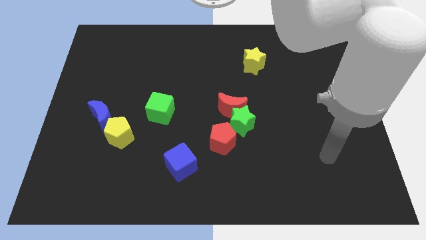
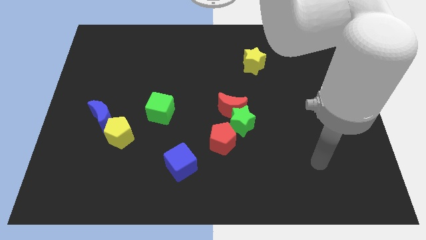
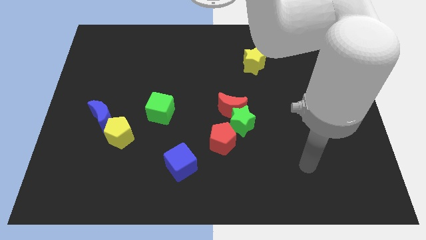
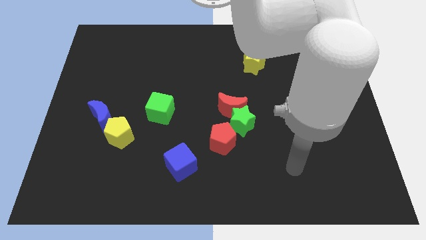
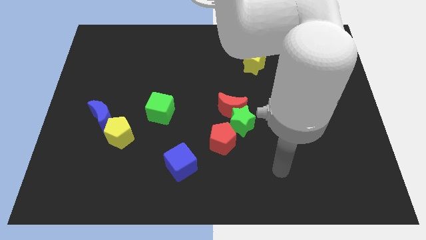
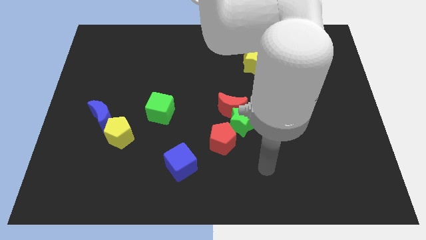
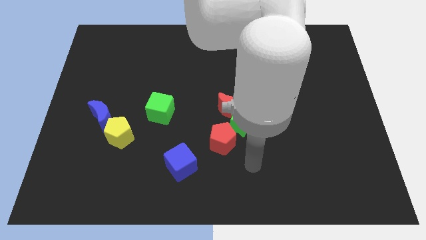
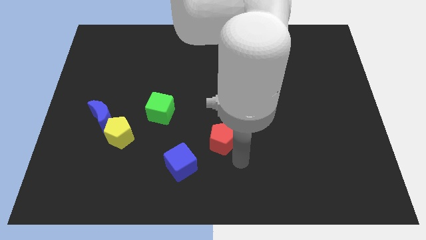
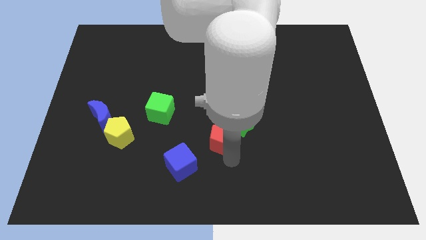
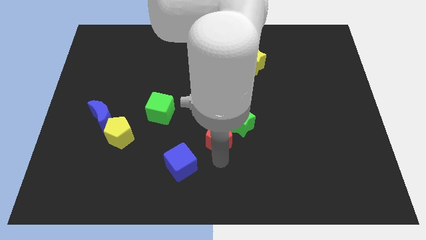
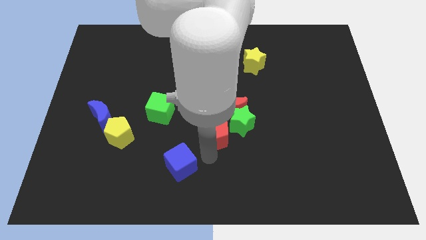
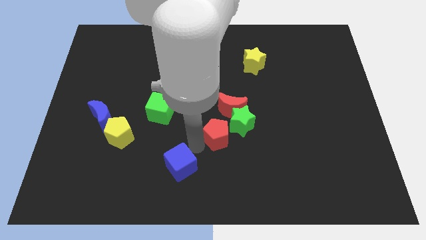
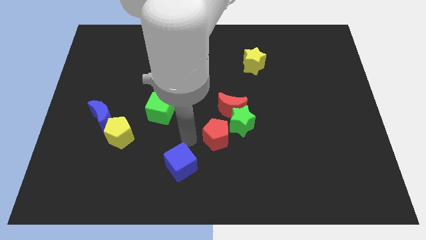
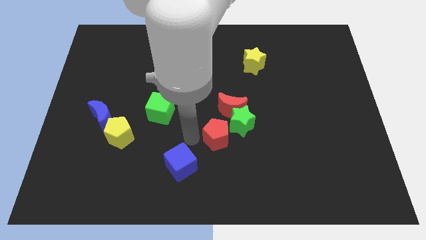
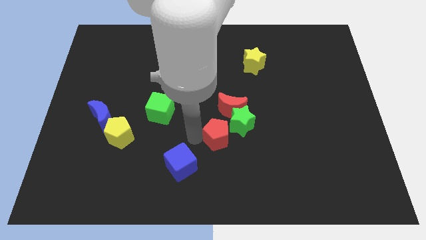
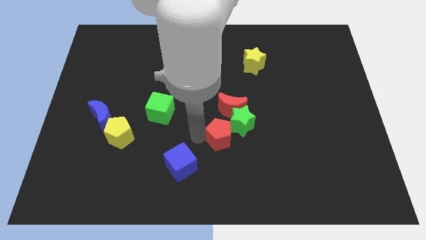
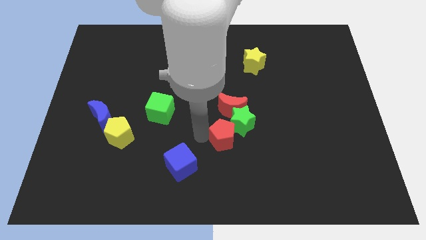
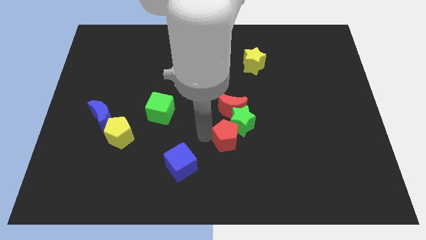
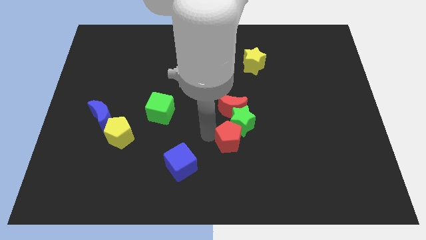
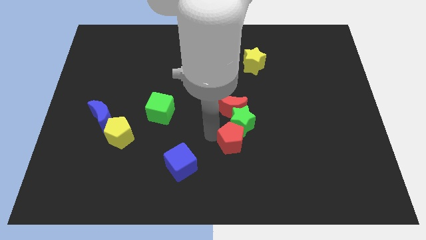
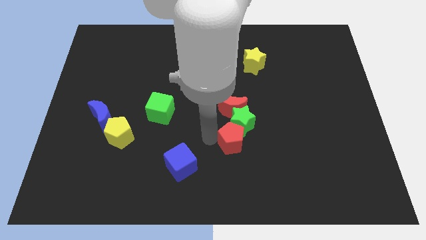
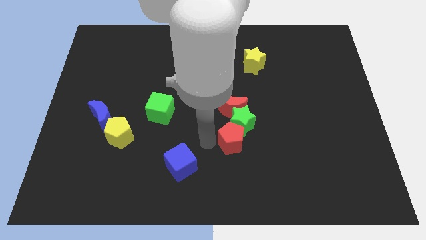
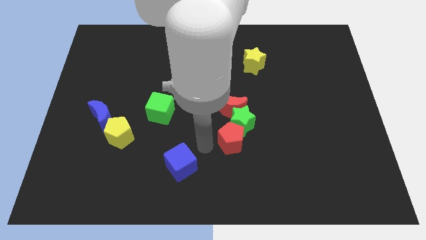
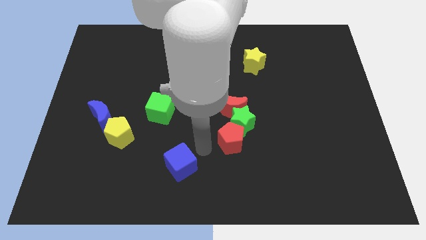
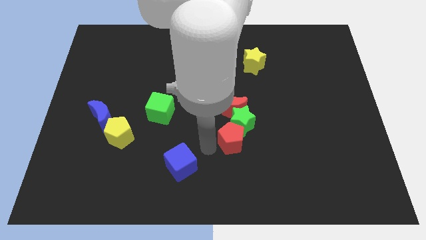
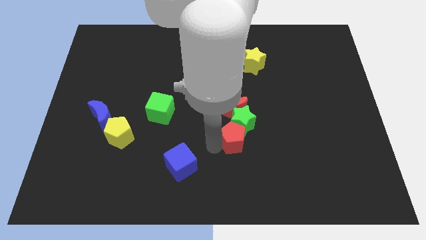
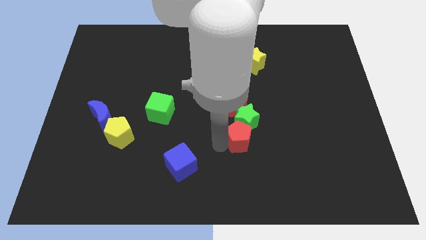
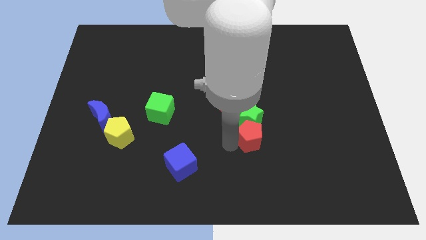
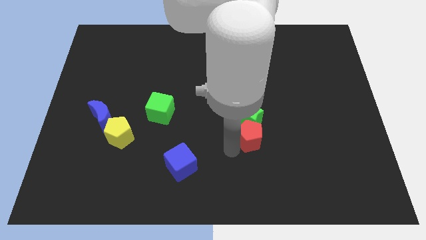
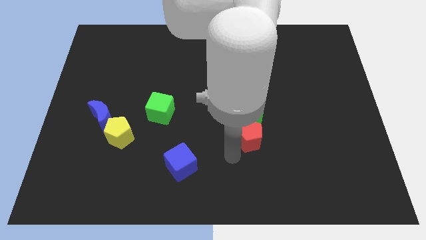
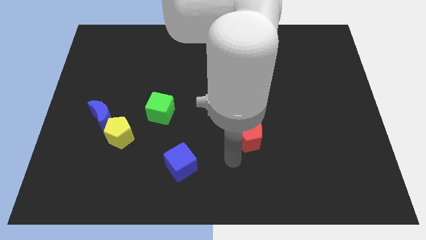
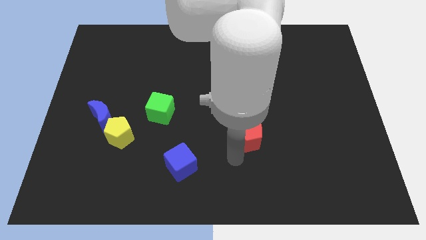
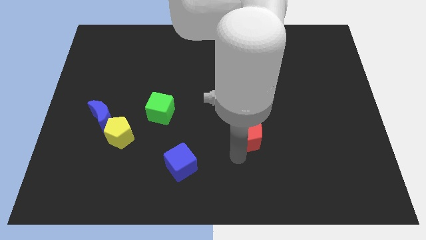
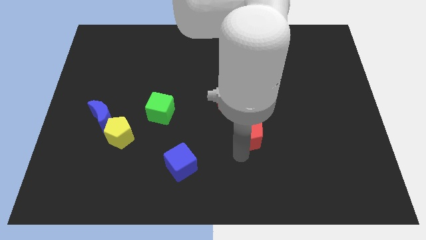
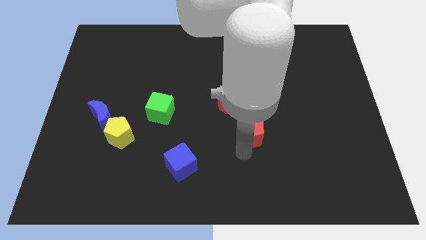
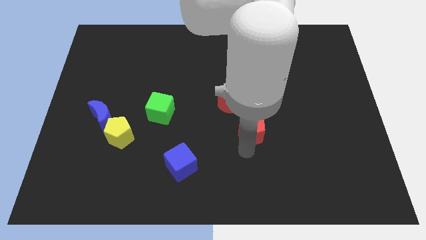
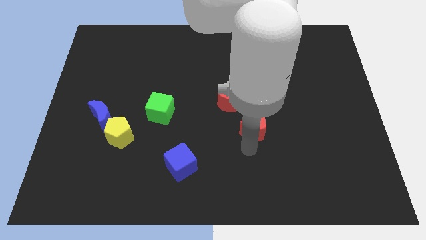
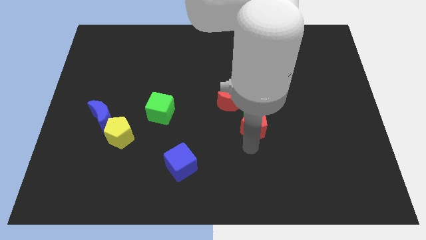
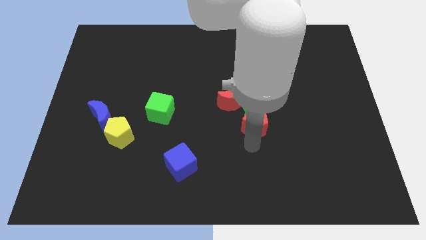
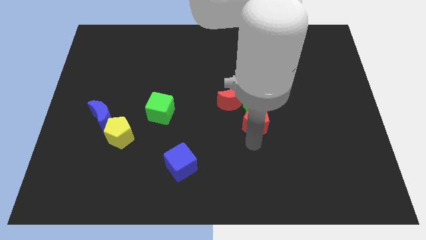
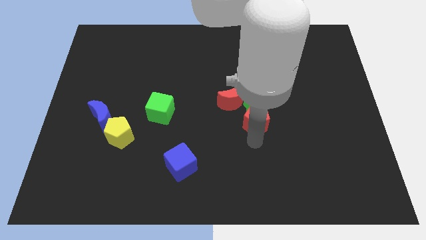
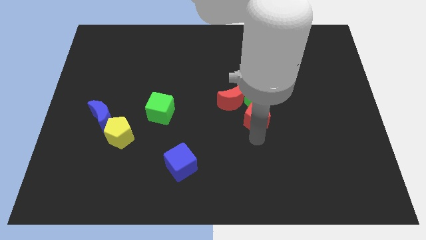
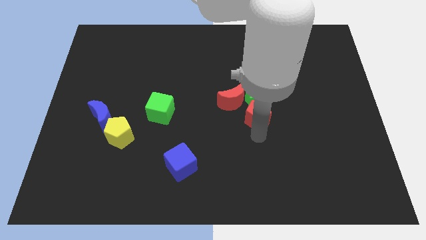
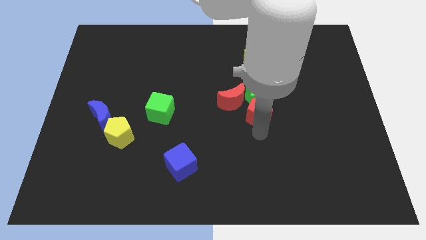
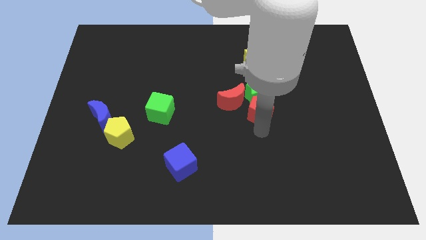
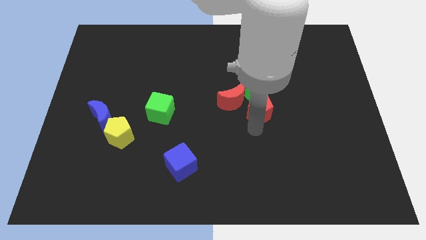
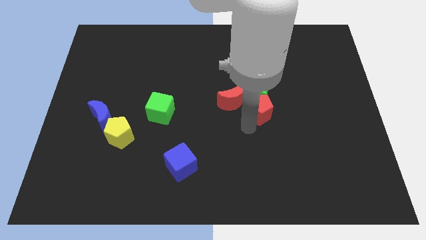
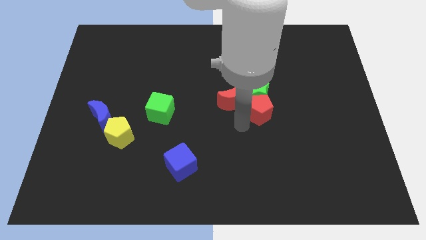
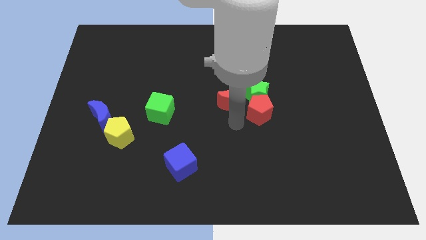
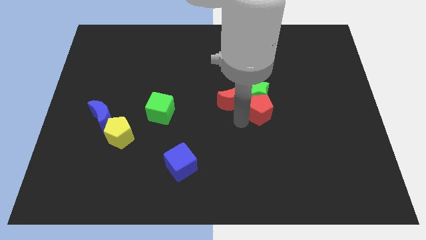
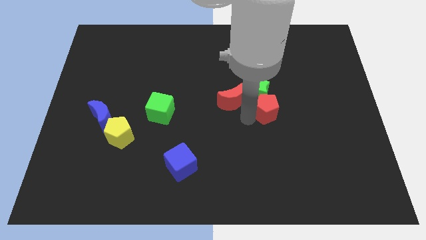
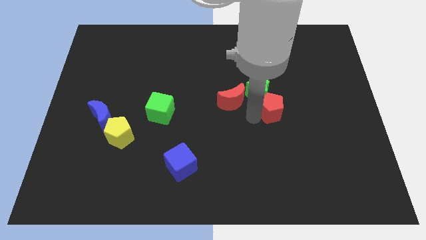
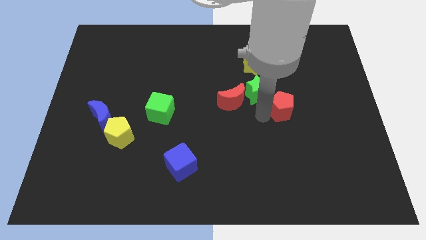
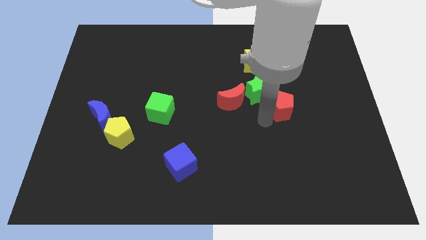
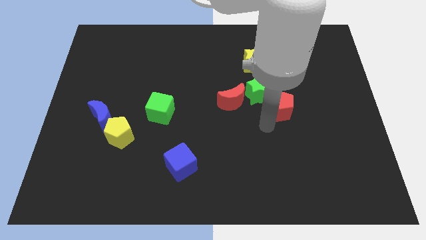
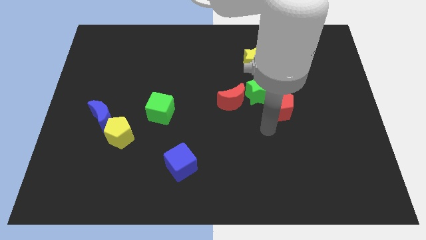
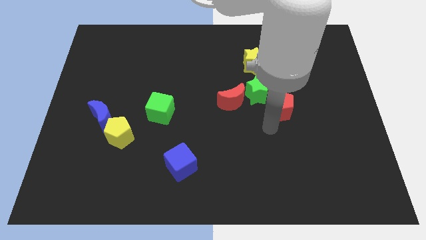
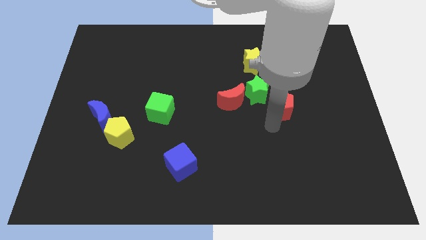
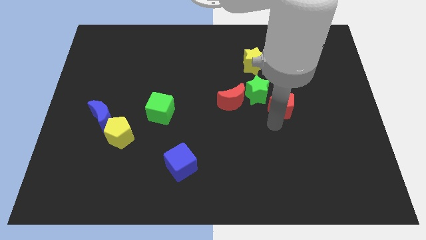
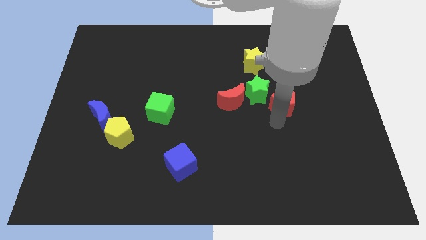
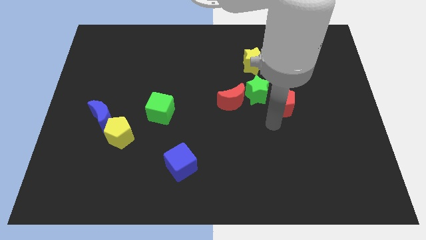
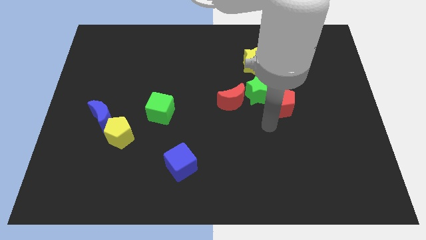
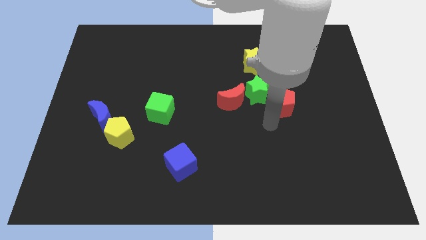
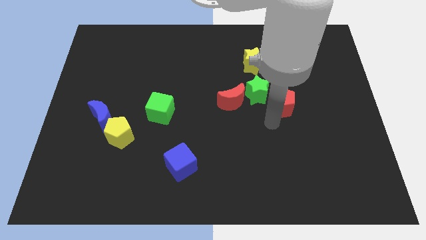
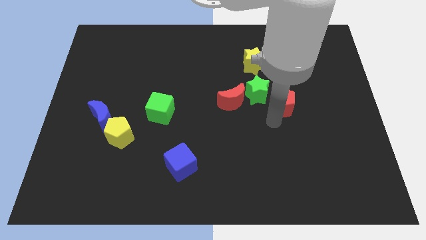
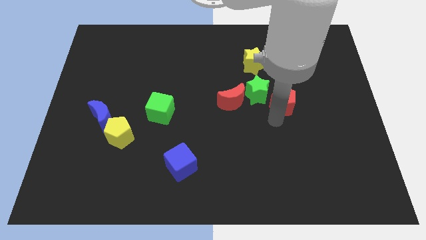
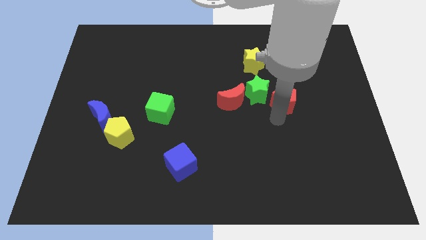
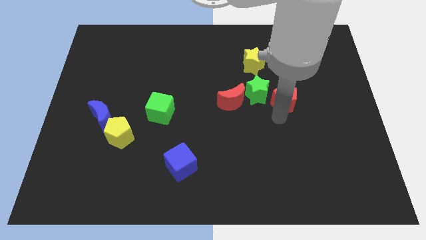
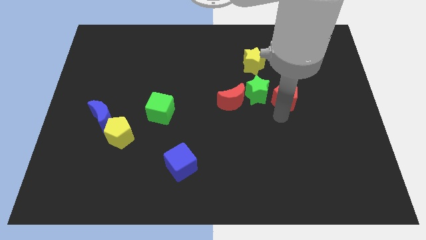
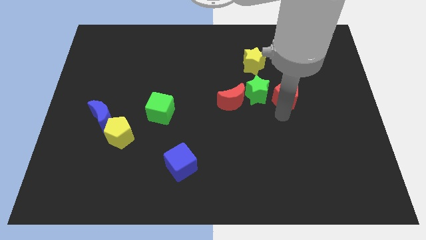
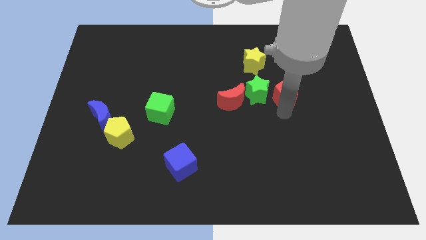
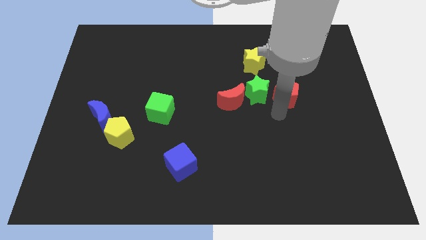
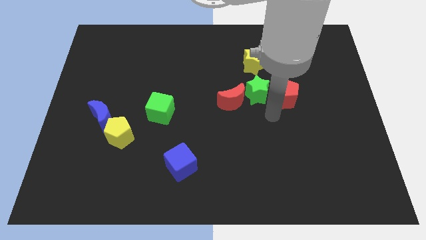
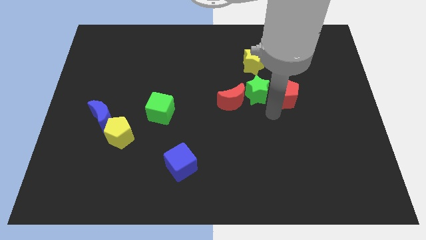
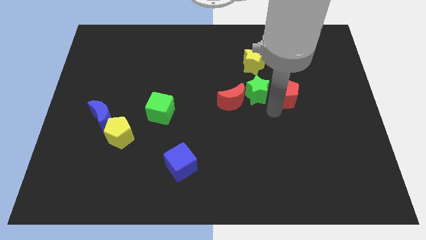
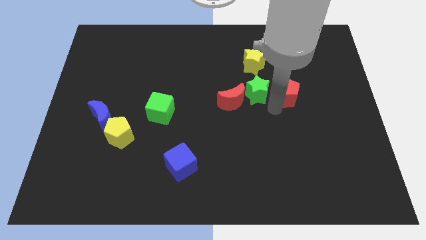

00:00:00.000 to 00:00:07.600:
push the red pentagon diagonally upwards and to the right

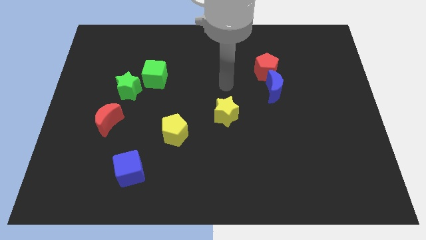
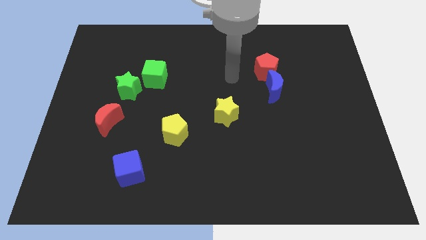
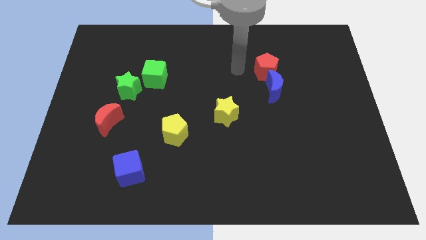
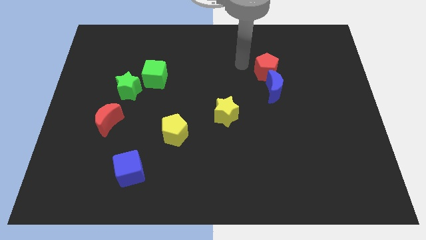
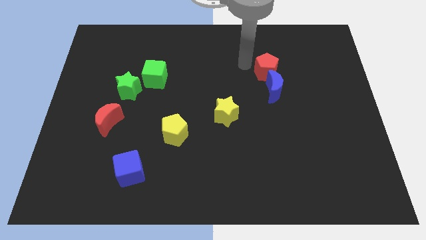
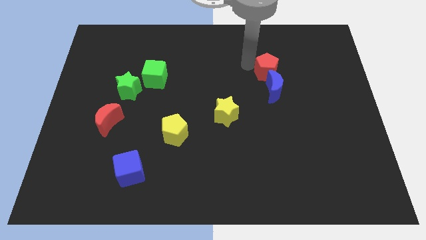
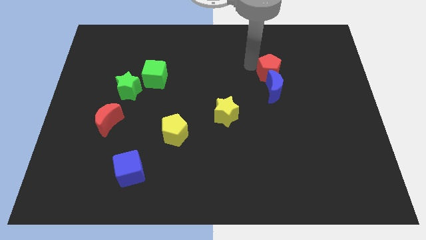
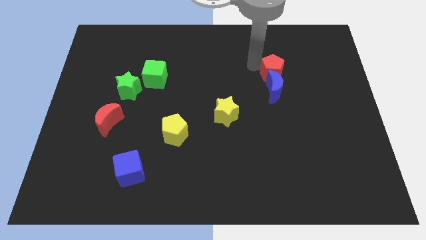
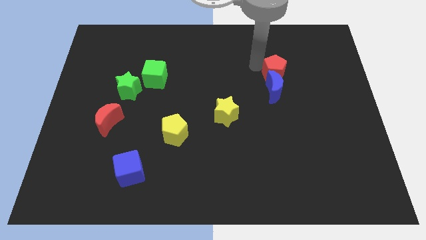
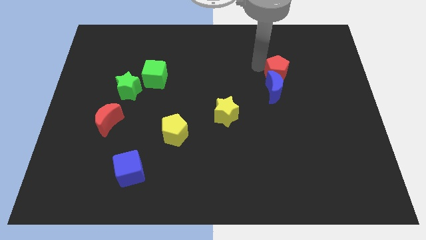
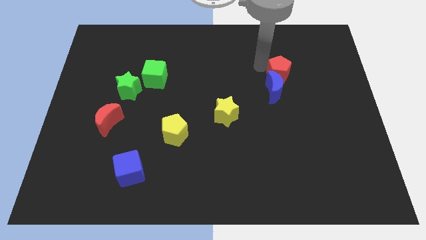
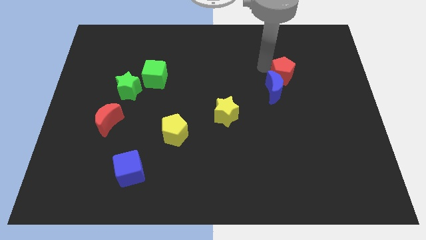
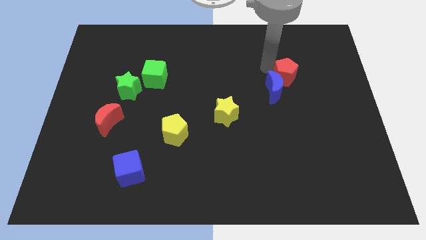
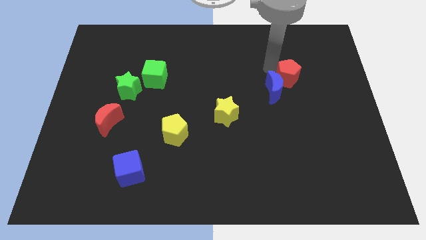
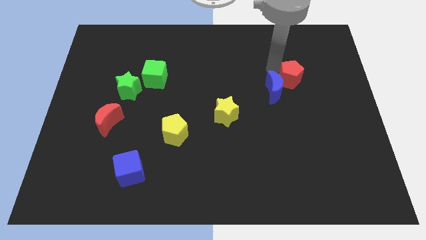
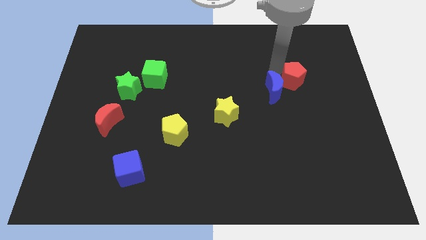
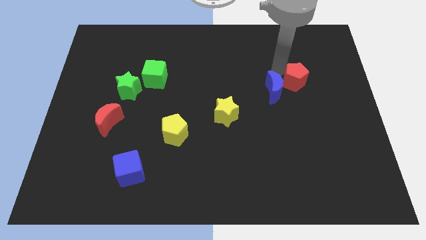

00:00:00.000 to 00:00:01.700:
slightly slide the red pentagon down and to the right
